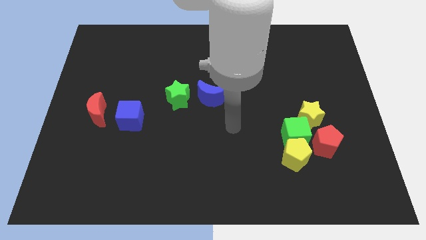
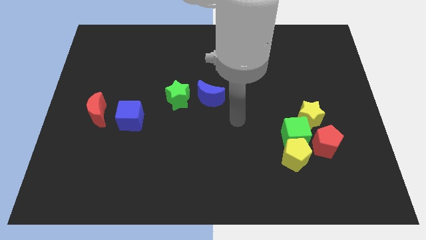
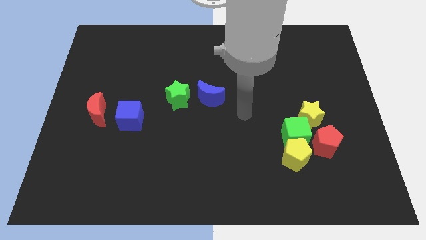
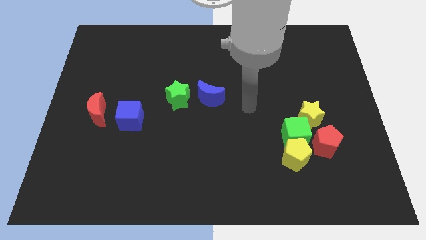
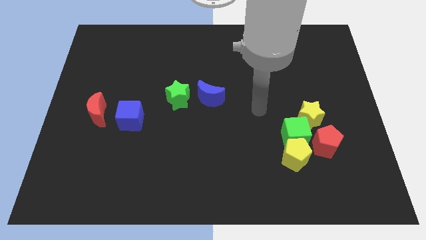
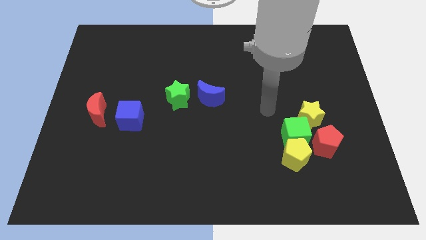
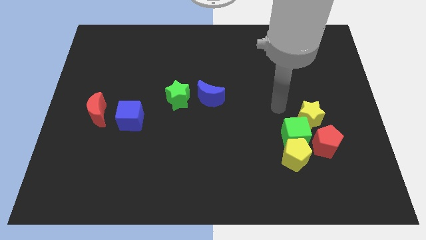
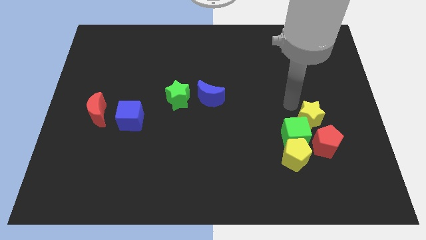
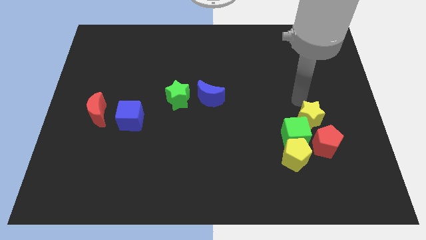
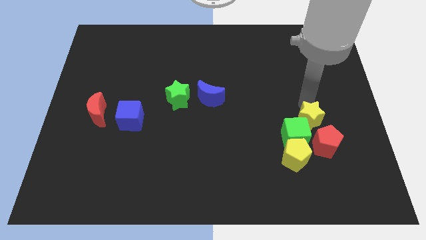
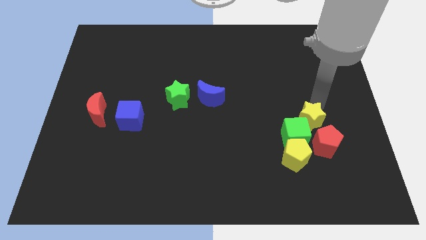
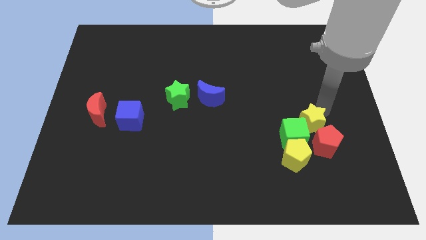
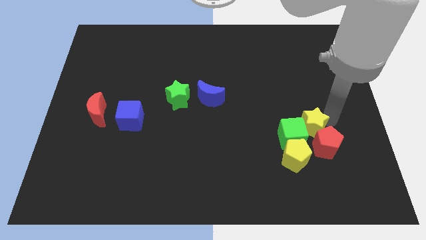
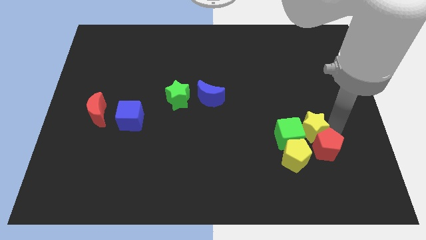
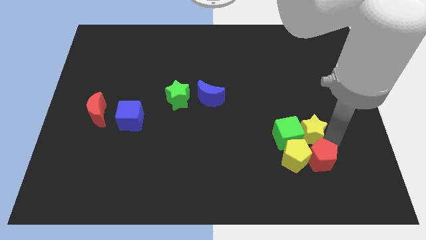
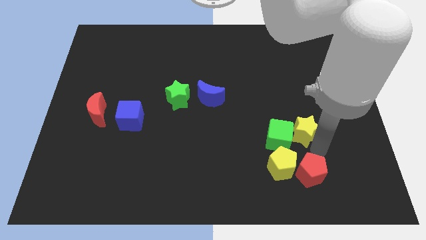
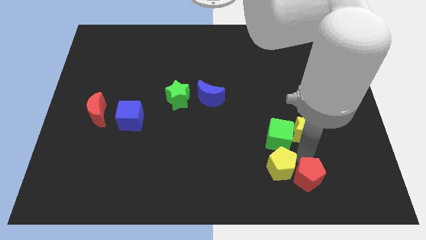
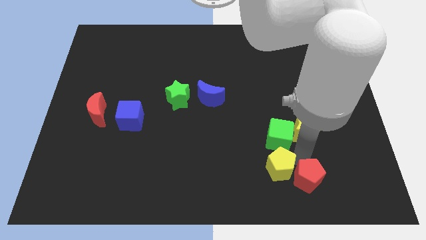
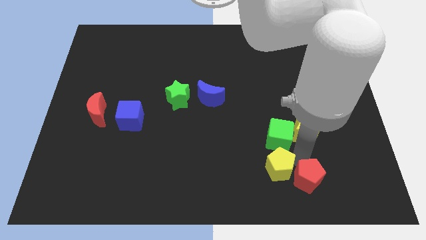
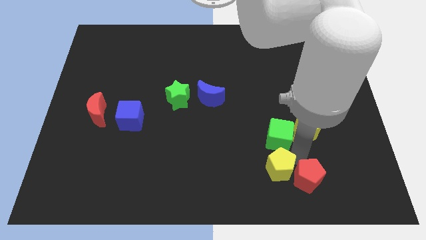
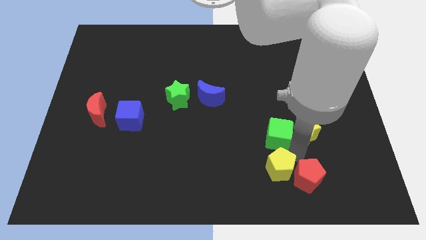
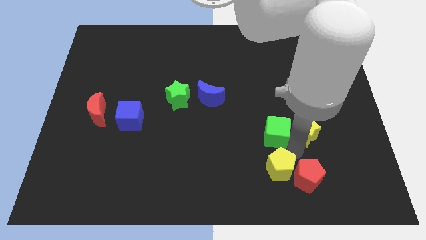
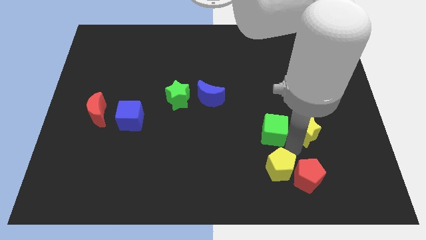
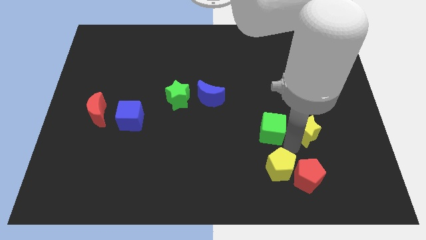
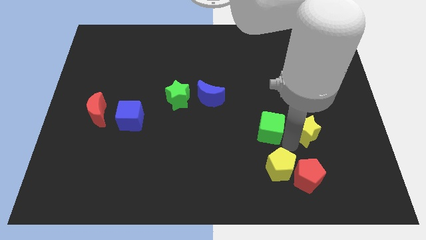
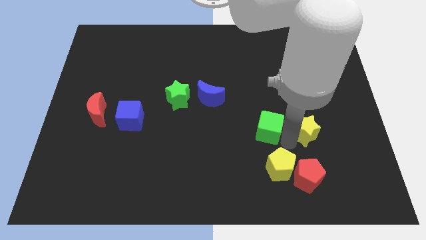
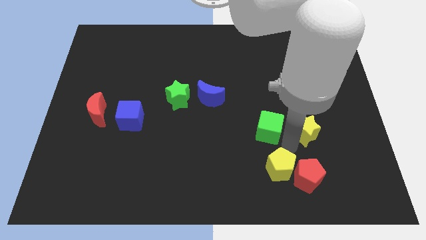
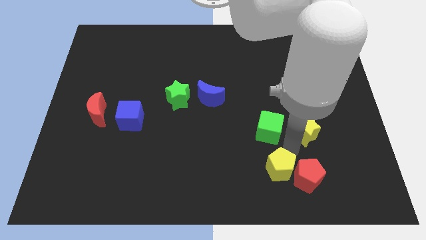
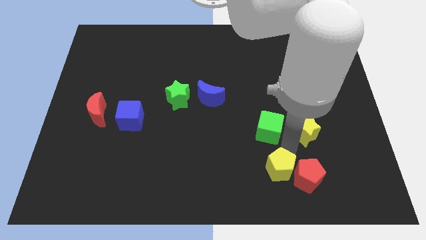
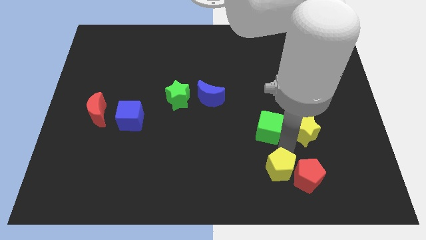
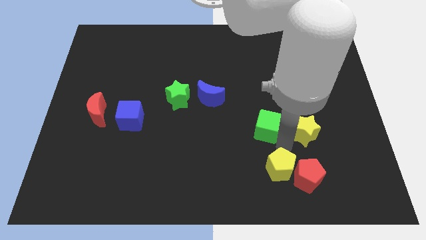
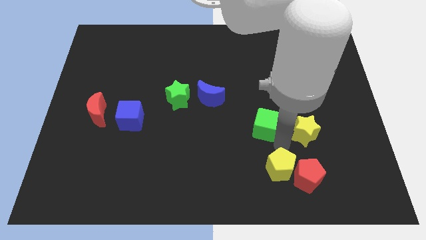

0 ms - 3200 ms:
move the green cube away from the yellow pentagon, yellow star, and red pentagon

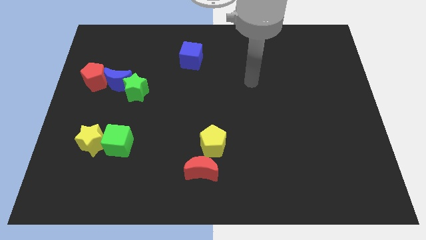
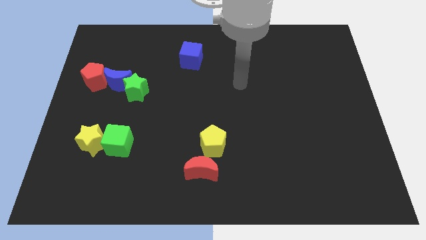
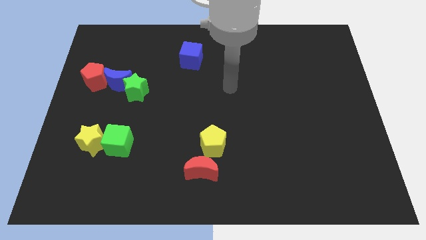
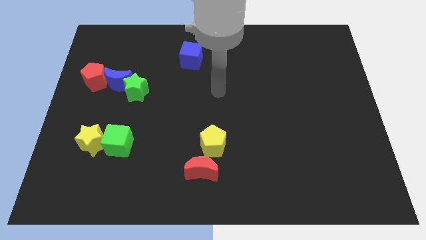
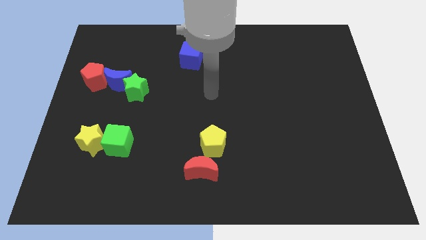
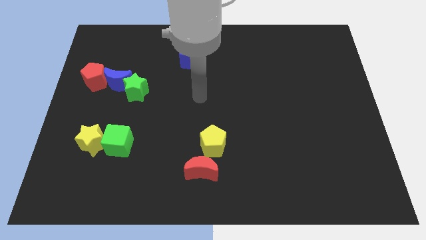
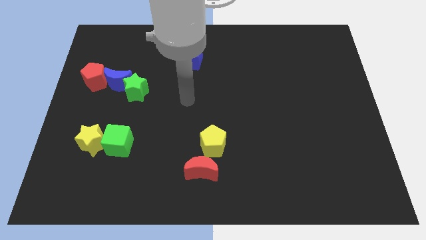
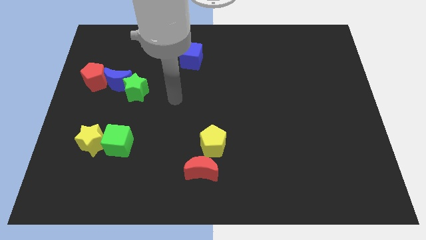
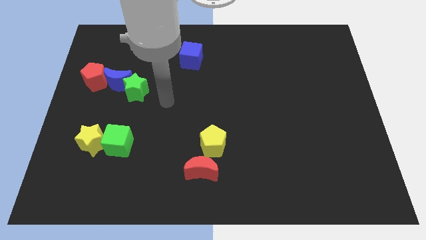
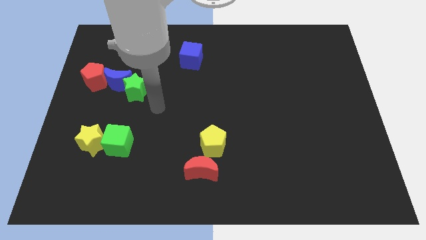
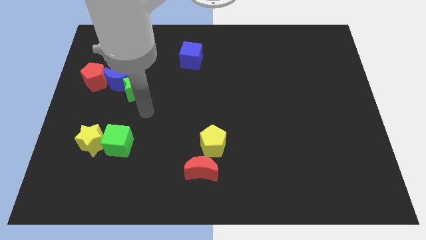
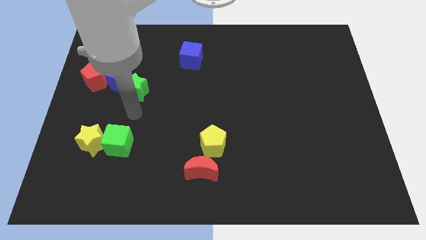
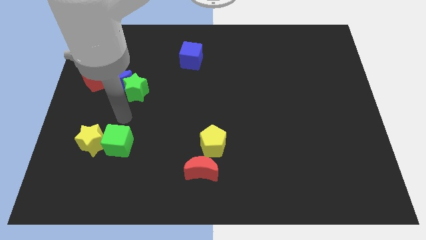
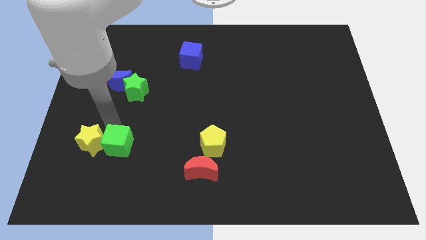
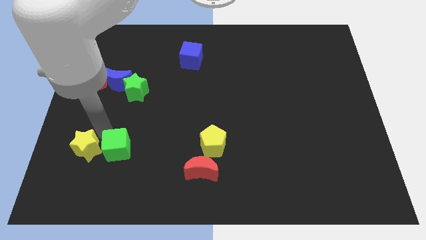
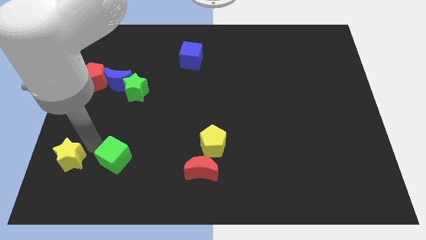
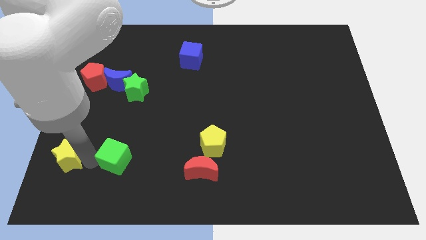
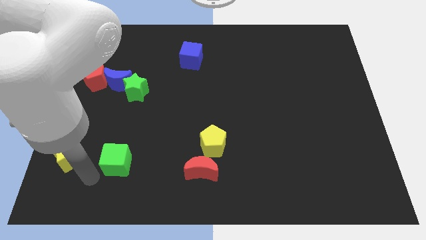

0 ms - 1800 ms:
separate the green cube from the yellow star

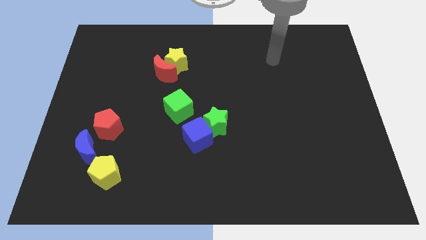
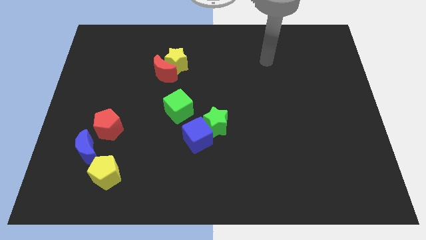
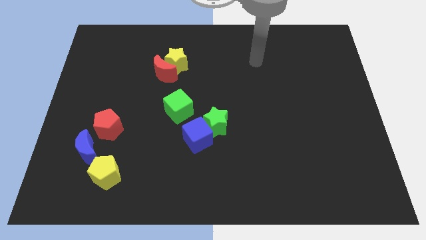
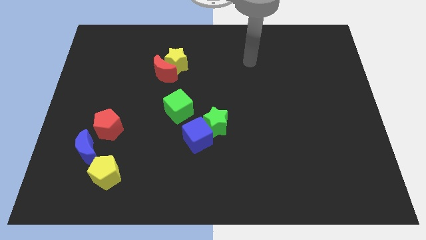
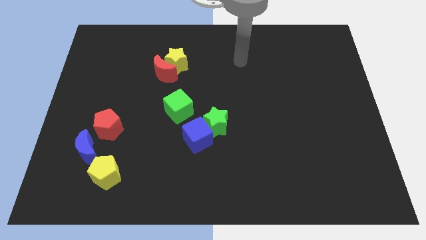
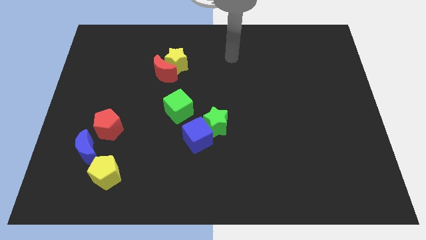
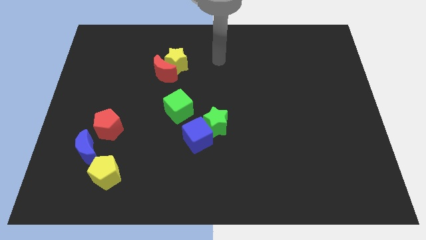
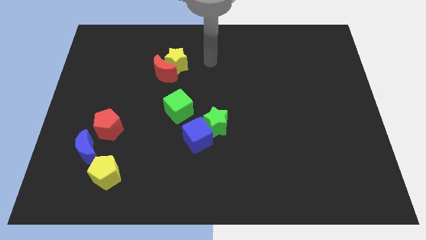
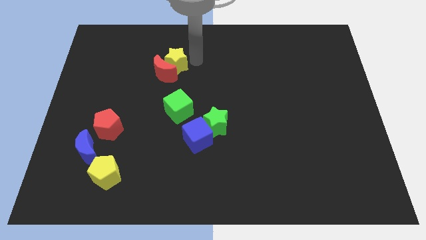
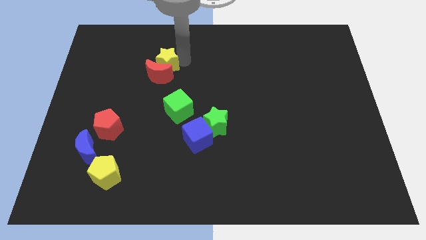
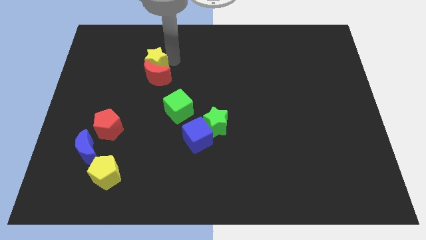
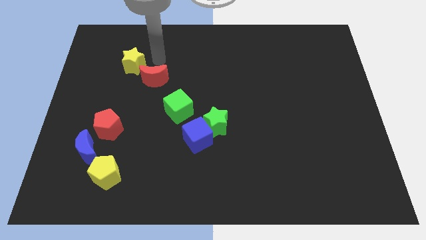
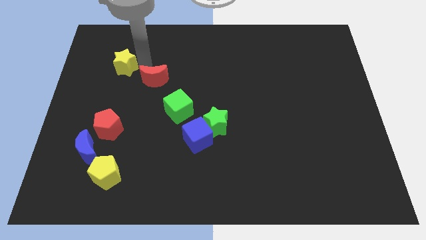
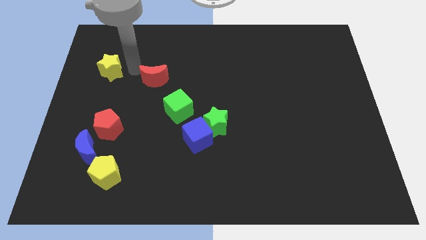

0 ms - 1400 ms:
separate the red moon from the yellow star

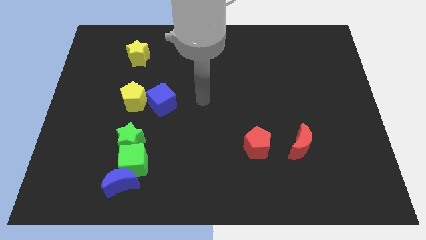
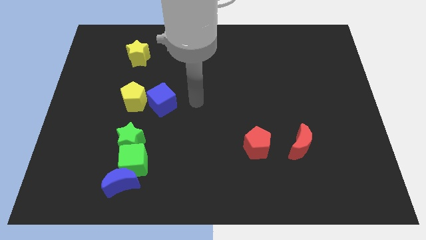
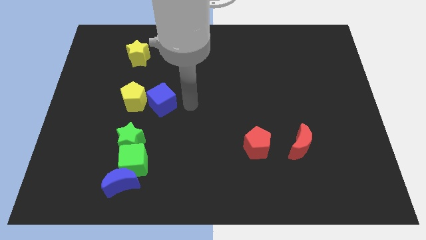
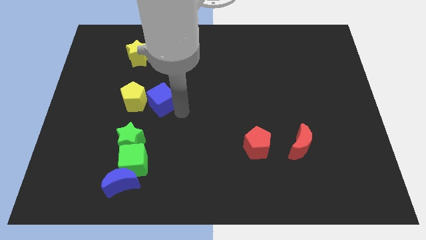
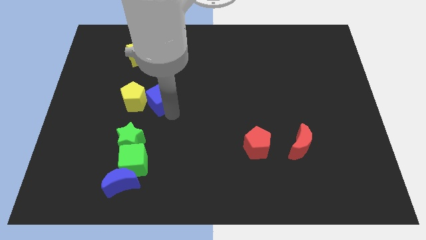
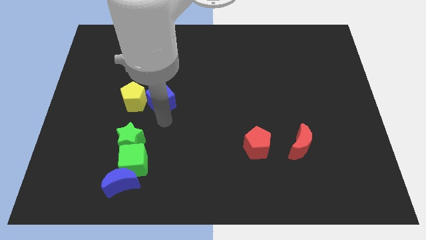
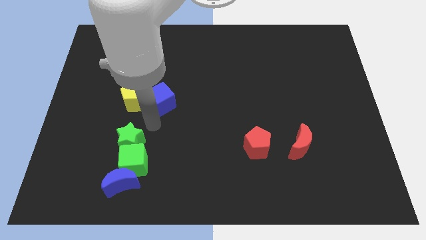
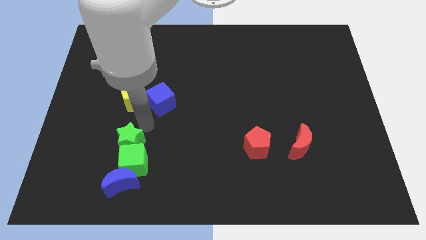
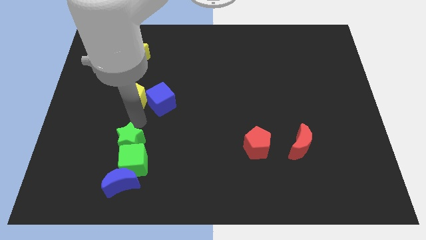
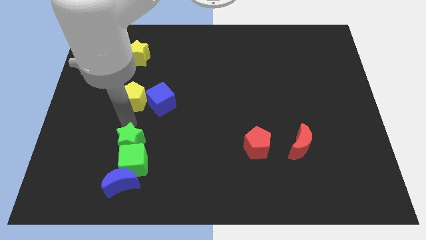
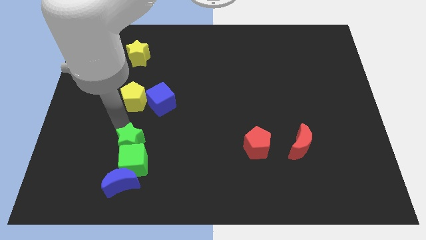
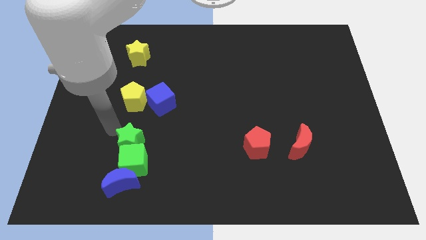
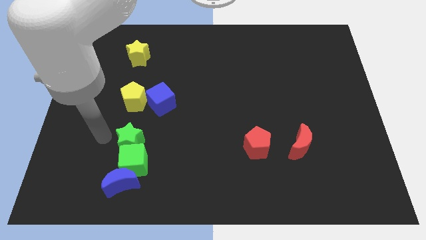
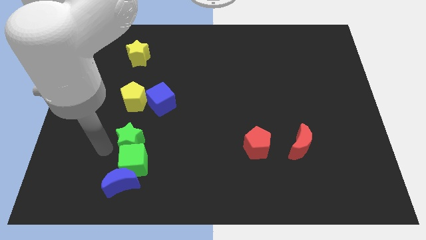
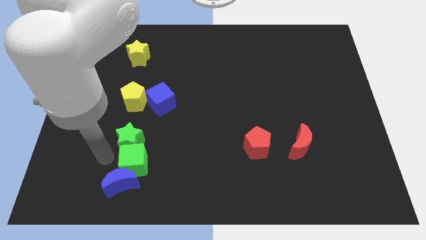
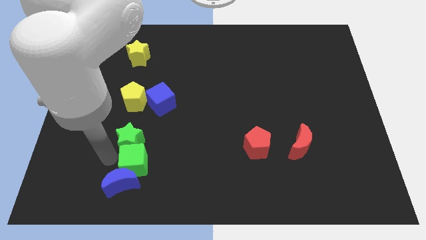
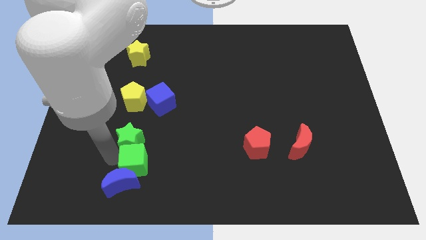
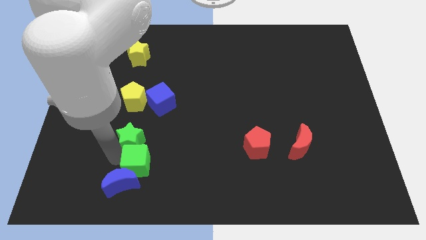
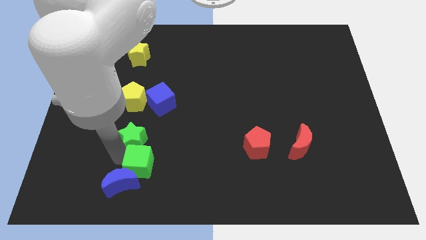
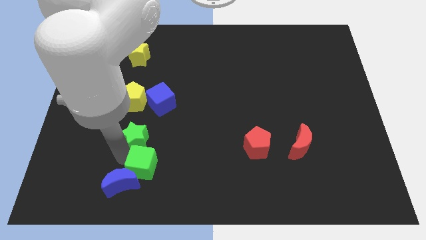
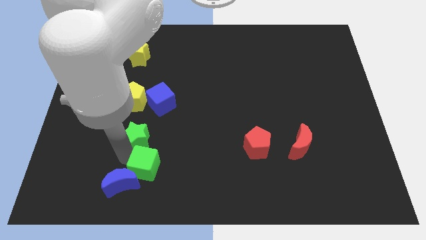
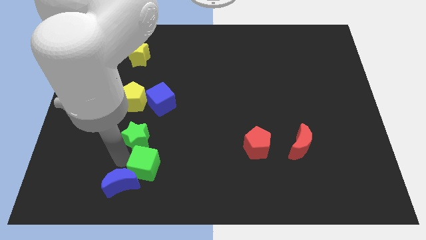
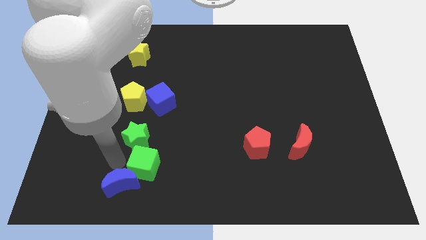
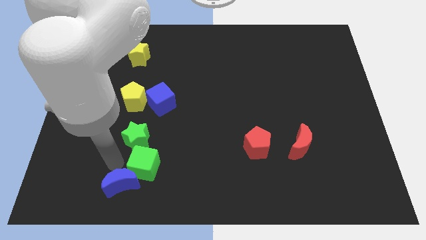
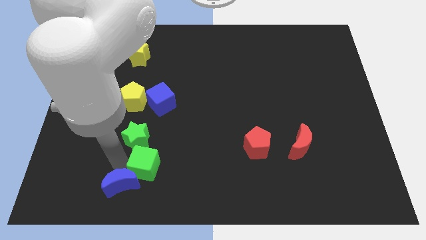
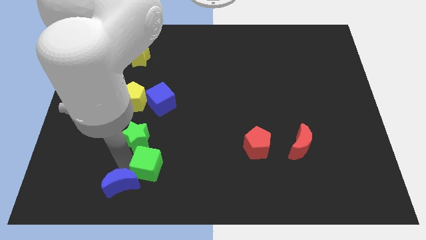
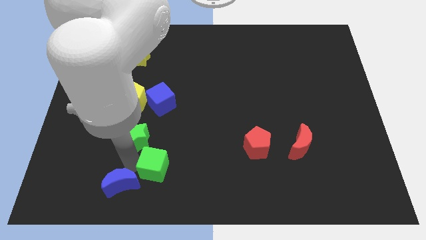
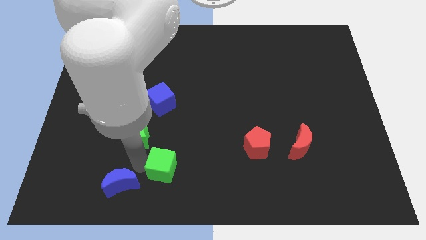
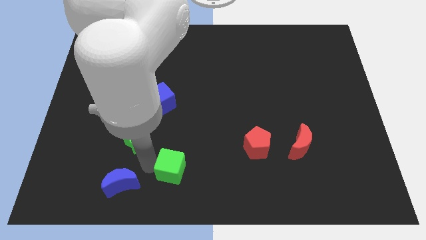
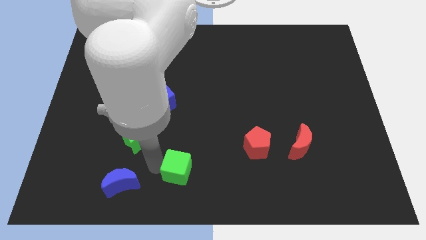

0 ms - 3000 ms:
pull the green cube apart from the blue moon and green star
